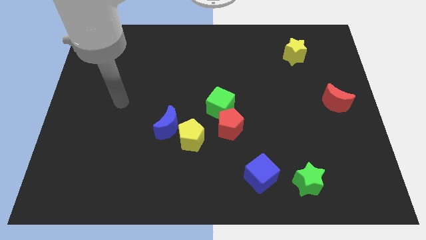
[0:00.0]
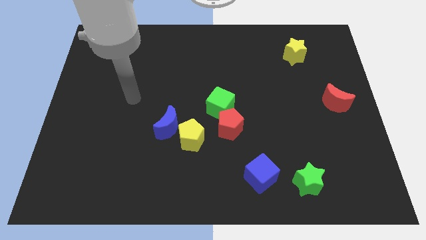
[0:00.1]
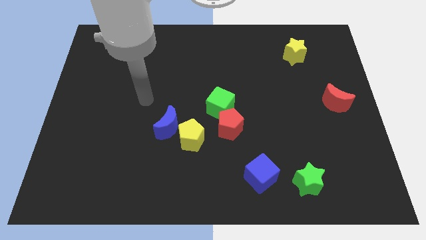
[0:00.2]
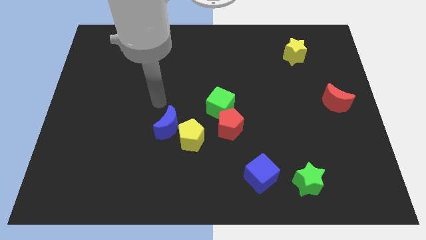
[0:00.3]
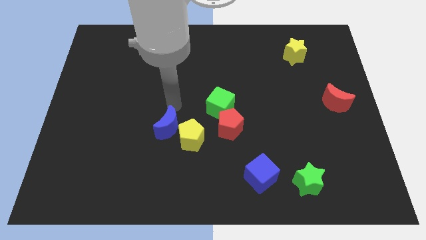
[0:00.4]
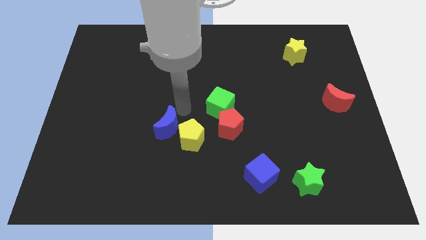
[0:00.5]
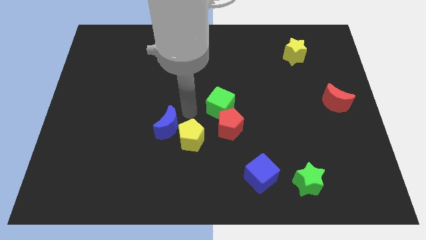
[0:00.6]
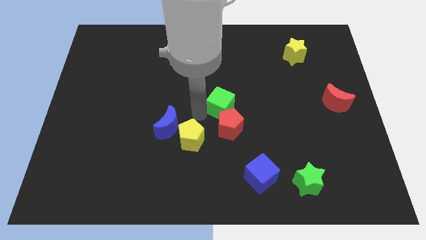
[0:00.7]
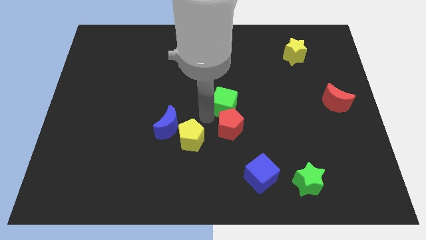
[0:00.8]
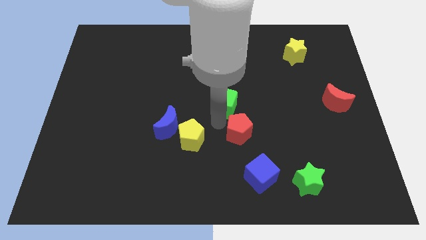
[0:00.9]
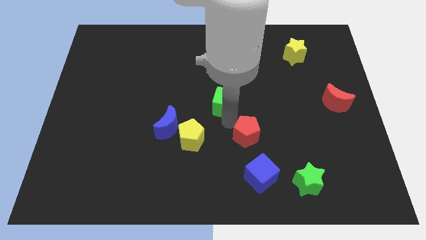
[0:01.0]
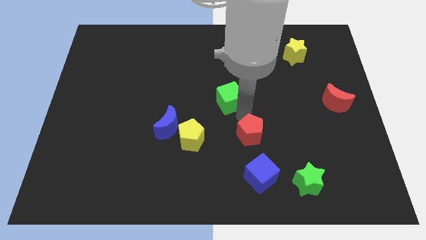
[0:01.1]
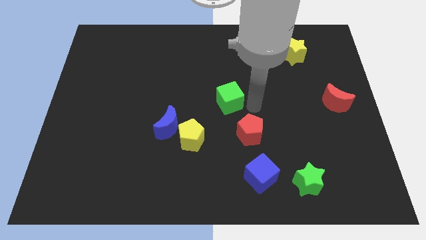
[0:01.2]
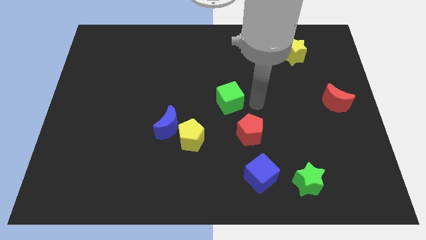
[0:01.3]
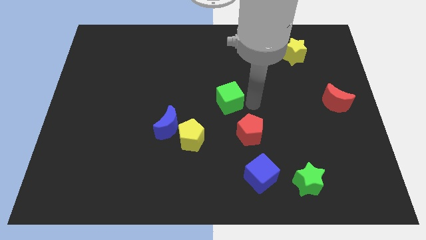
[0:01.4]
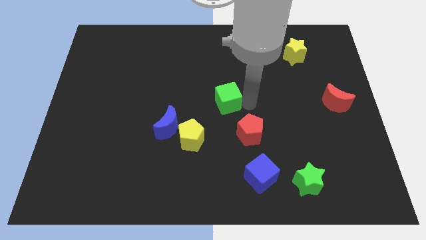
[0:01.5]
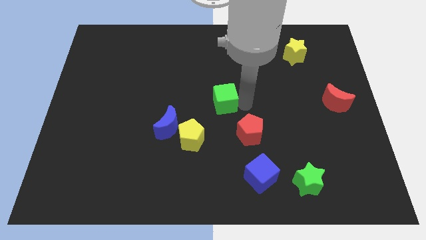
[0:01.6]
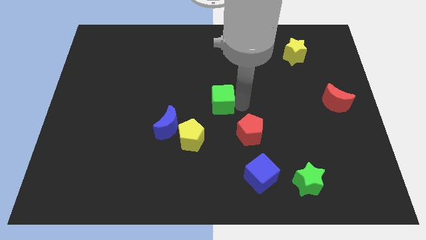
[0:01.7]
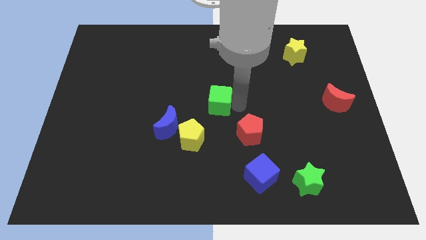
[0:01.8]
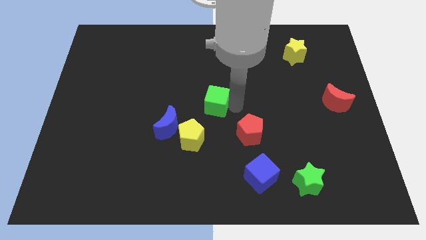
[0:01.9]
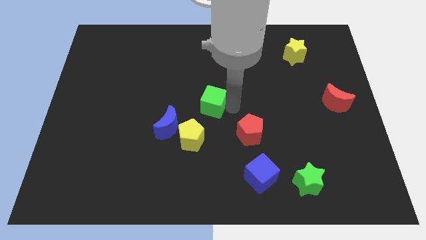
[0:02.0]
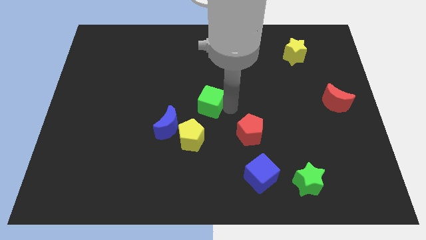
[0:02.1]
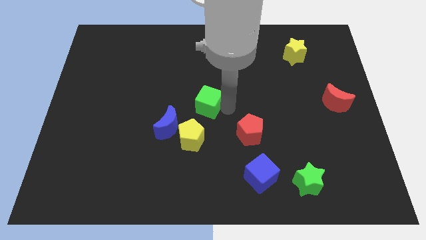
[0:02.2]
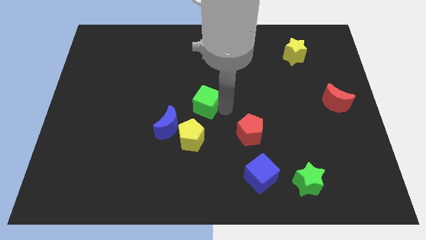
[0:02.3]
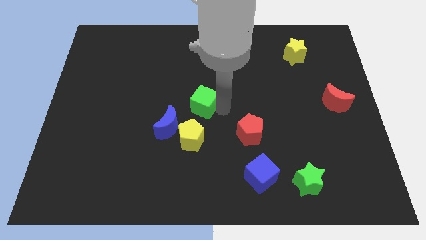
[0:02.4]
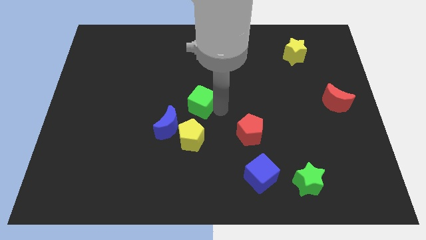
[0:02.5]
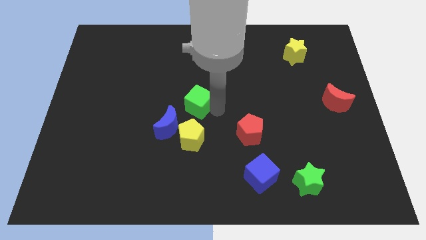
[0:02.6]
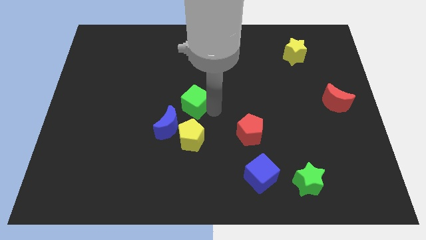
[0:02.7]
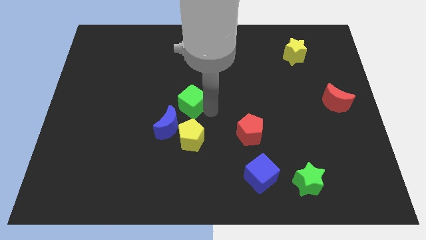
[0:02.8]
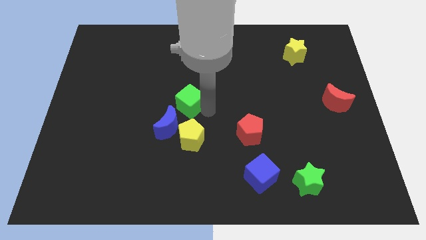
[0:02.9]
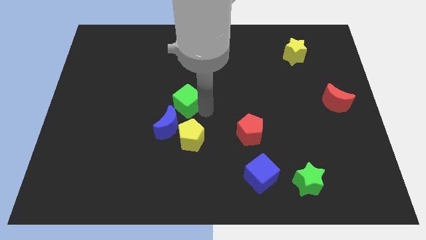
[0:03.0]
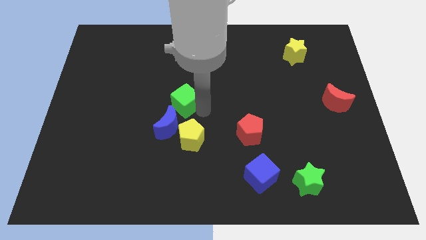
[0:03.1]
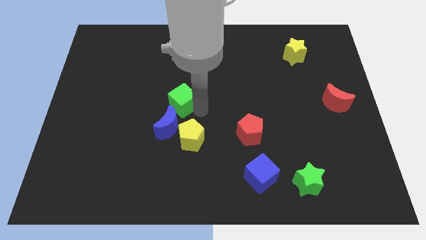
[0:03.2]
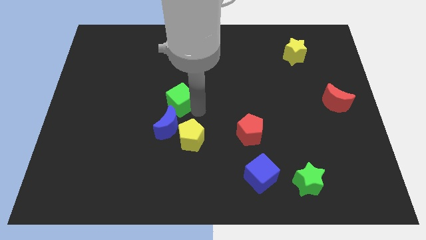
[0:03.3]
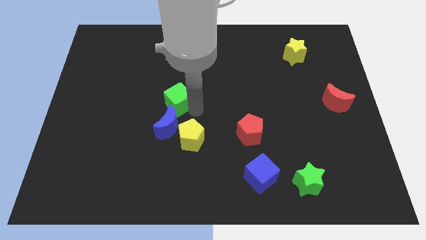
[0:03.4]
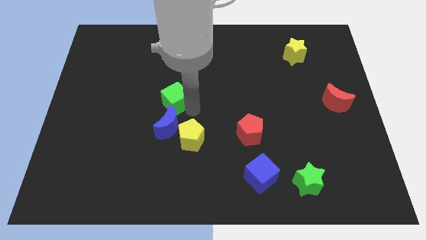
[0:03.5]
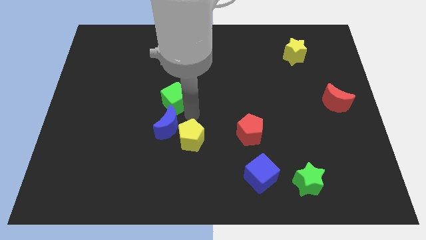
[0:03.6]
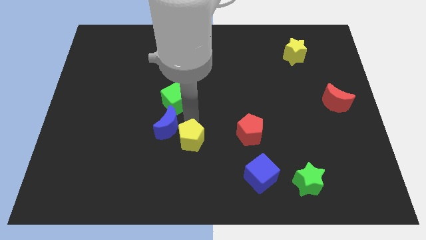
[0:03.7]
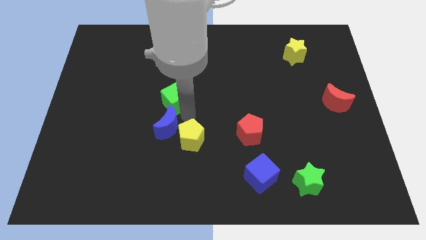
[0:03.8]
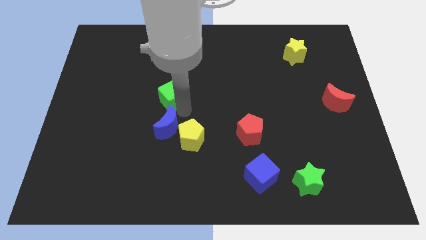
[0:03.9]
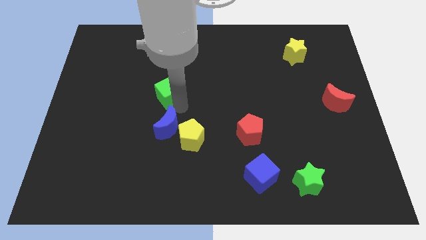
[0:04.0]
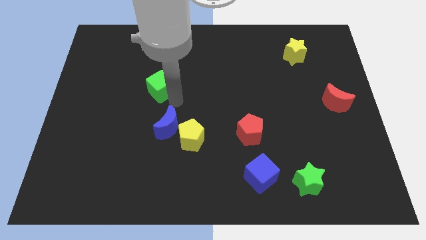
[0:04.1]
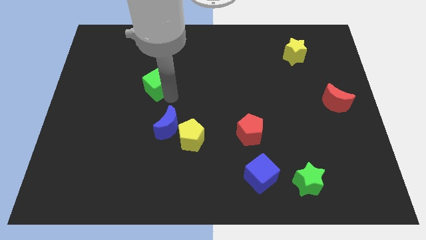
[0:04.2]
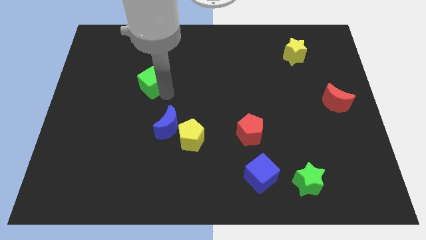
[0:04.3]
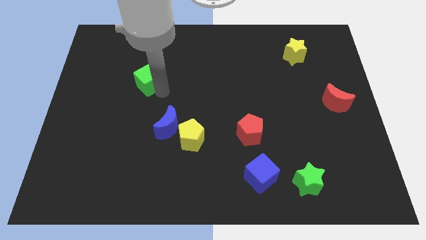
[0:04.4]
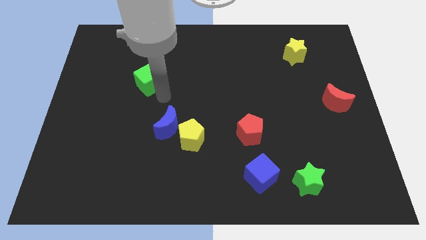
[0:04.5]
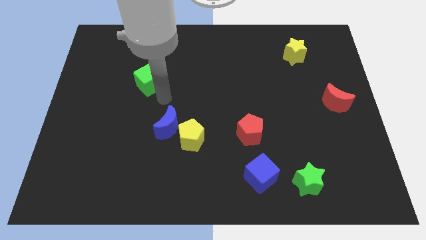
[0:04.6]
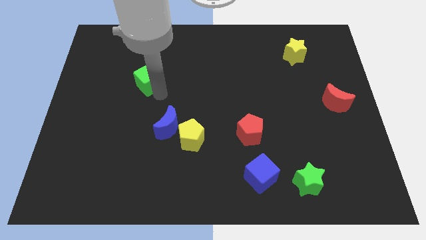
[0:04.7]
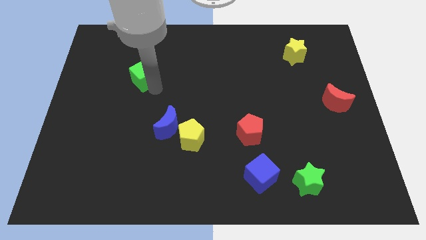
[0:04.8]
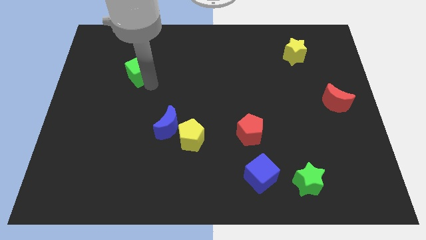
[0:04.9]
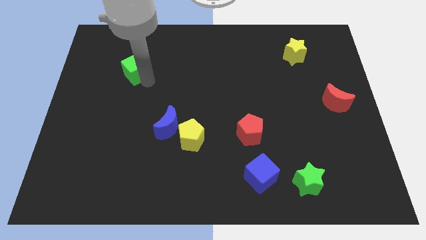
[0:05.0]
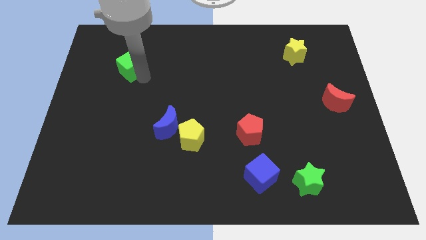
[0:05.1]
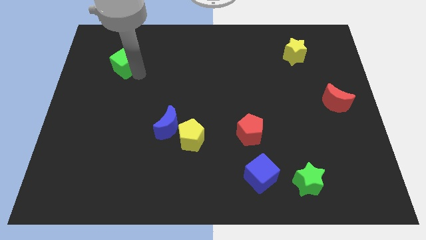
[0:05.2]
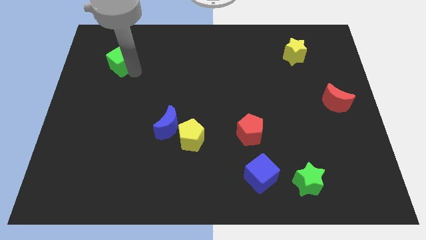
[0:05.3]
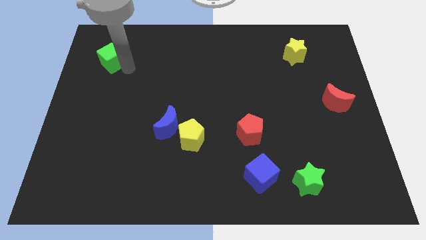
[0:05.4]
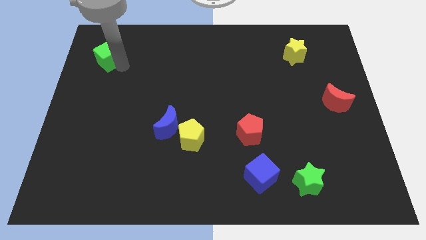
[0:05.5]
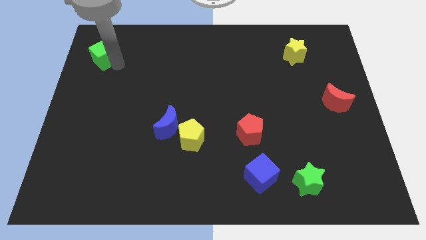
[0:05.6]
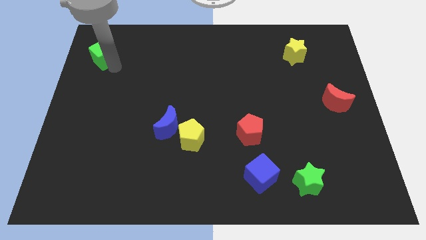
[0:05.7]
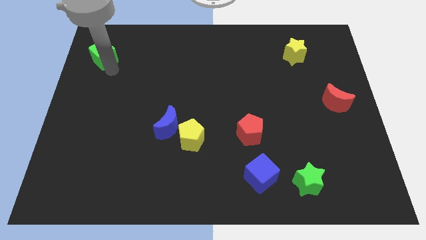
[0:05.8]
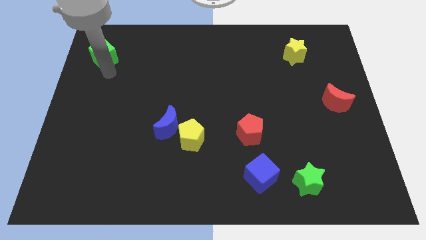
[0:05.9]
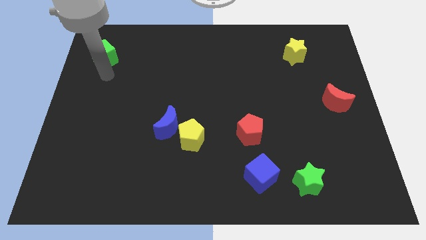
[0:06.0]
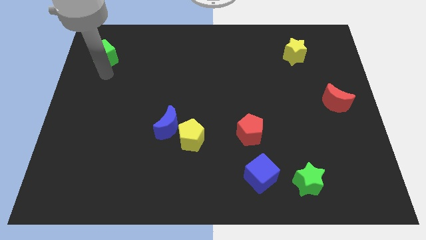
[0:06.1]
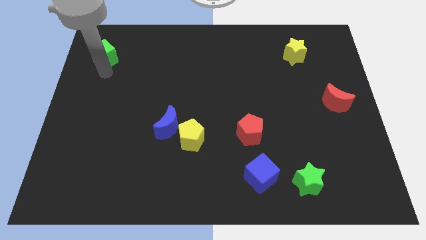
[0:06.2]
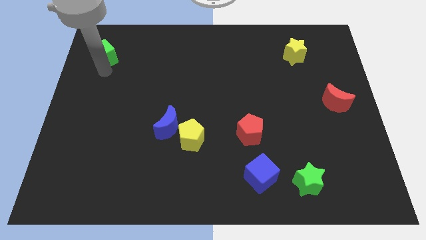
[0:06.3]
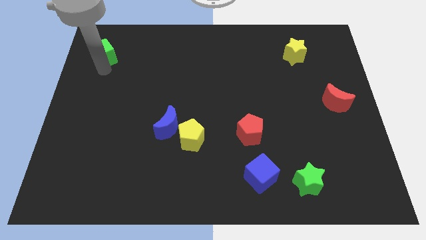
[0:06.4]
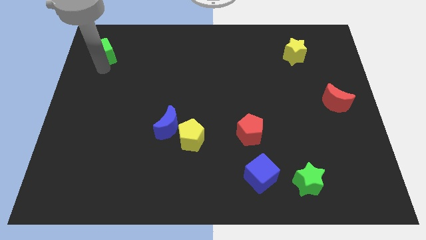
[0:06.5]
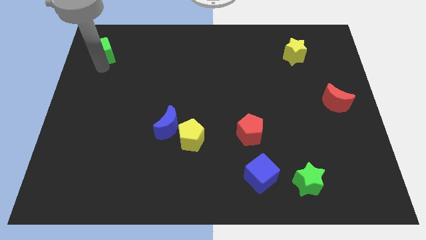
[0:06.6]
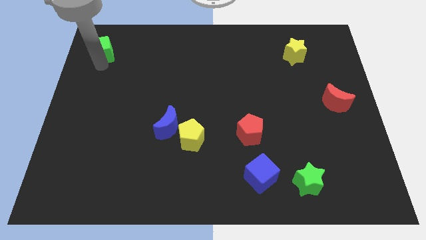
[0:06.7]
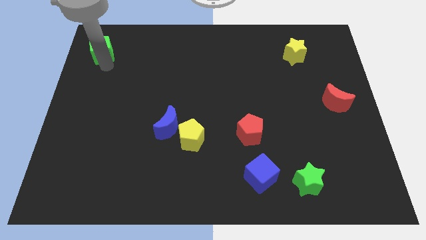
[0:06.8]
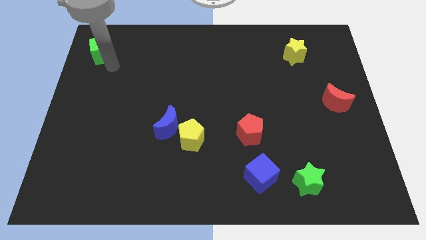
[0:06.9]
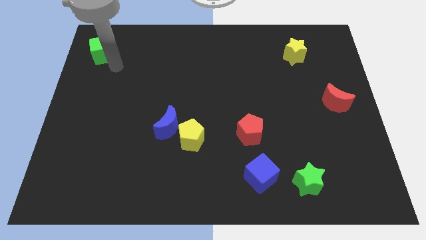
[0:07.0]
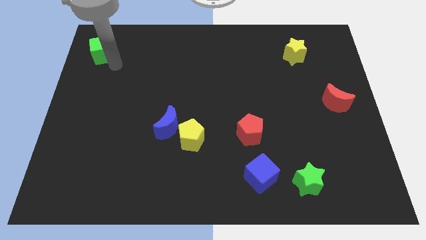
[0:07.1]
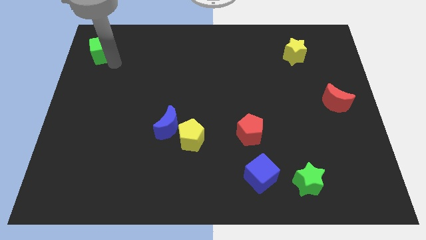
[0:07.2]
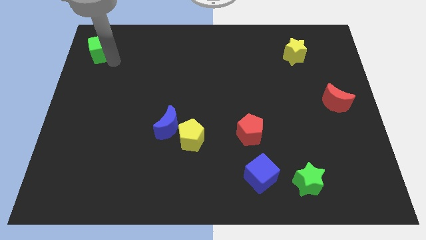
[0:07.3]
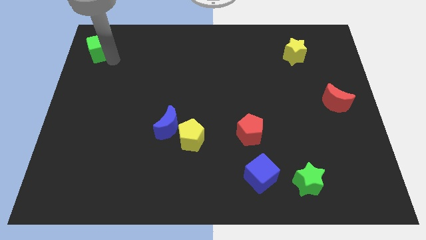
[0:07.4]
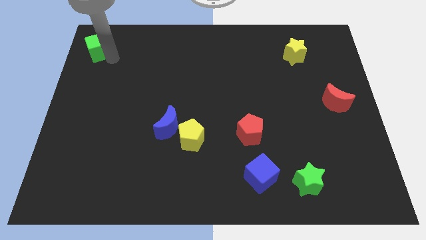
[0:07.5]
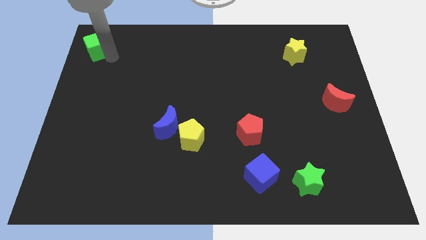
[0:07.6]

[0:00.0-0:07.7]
push the green cube to the top left

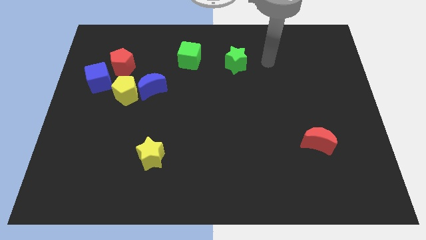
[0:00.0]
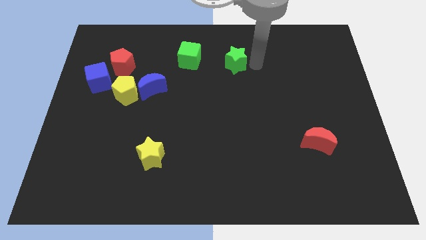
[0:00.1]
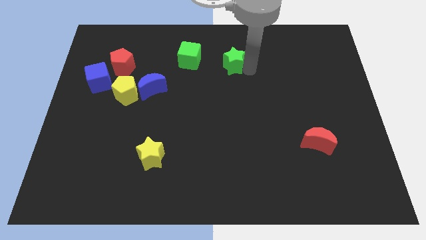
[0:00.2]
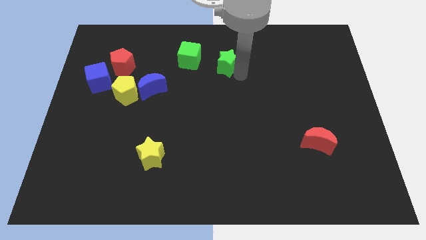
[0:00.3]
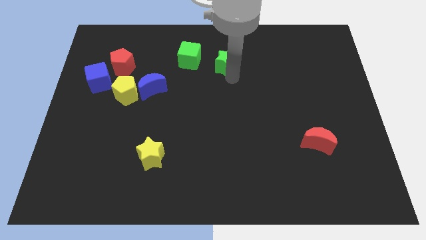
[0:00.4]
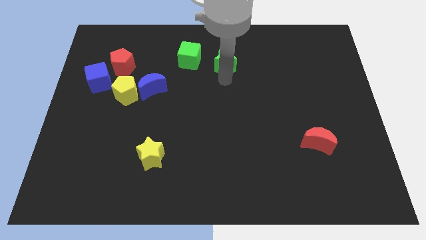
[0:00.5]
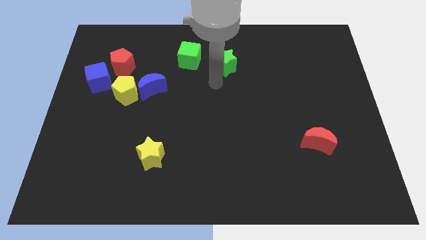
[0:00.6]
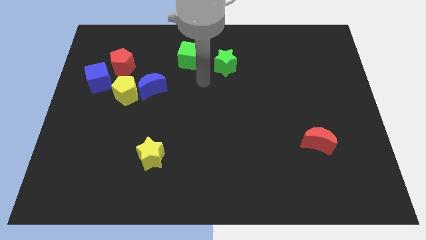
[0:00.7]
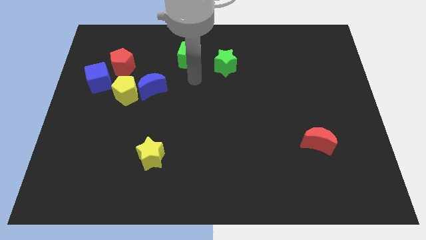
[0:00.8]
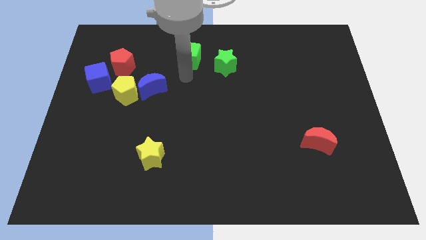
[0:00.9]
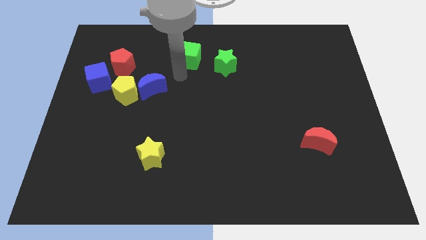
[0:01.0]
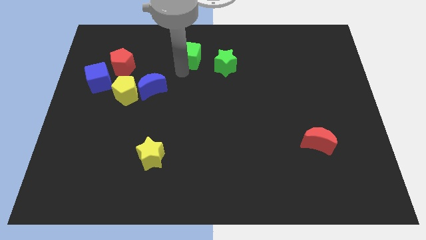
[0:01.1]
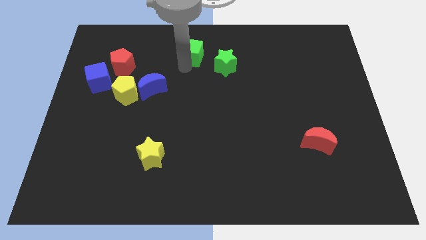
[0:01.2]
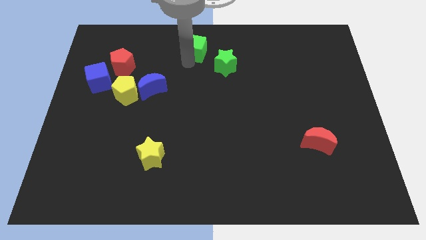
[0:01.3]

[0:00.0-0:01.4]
put the green cube to the top
